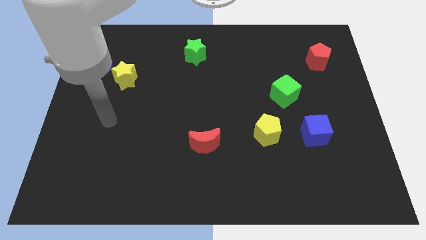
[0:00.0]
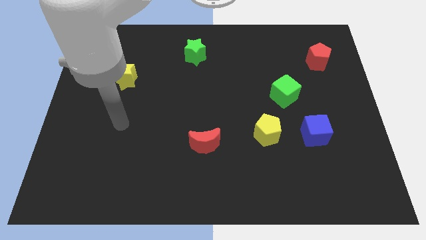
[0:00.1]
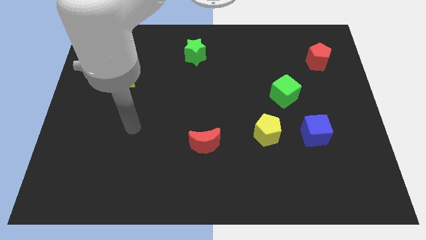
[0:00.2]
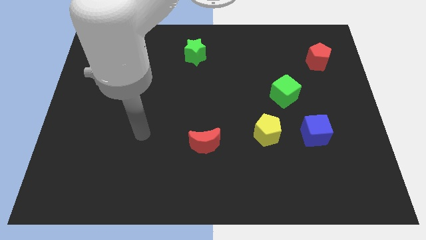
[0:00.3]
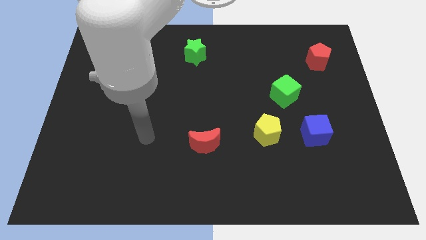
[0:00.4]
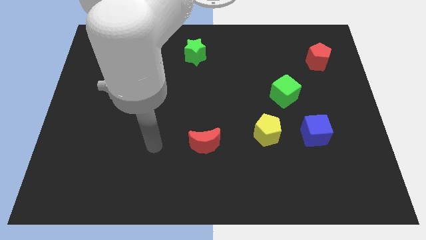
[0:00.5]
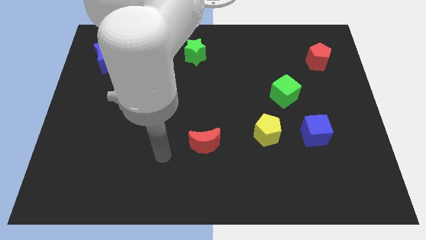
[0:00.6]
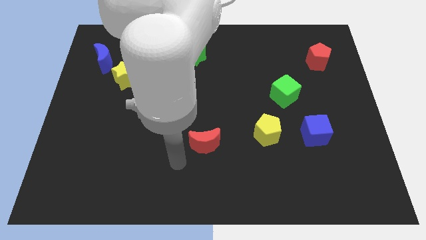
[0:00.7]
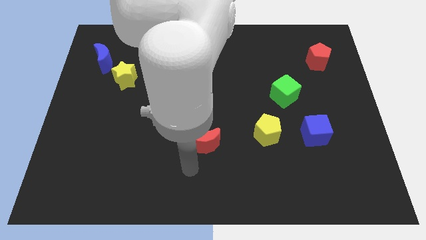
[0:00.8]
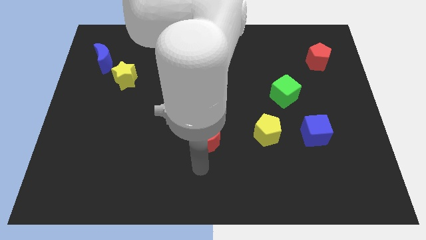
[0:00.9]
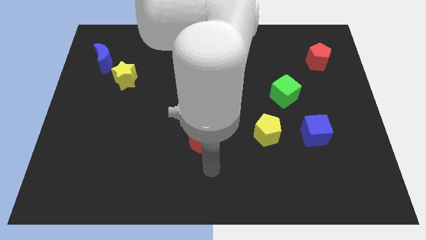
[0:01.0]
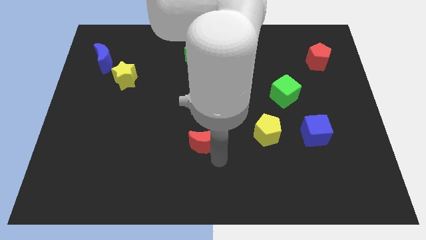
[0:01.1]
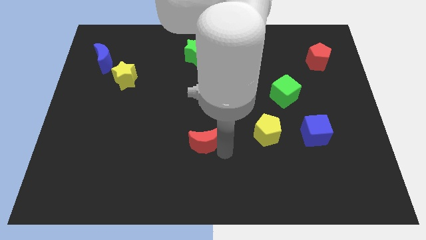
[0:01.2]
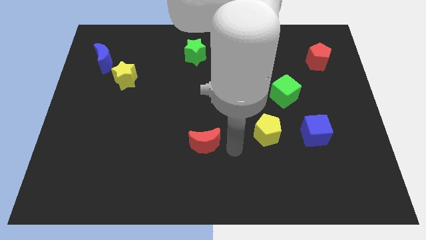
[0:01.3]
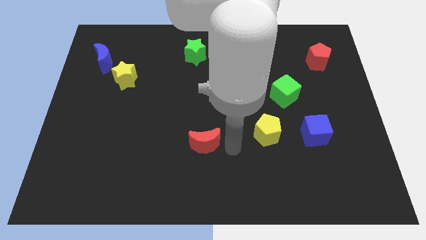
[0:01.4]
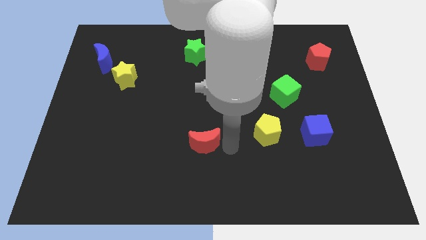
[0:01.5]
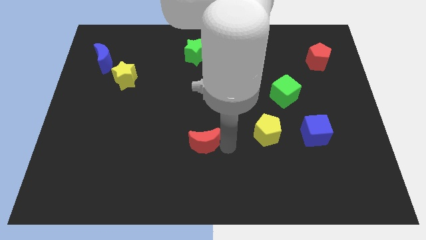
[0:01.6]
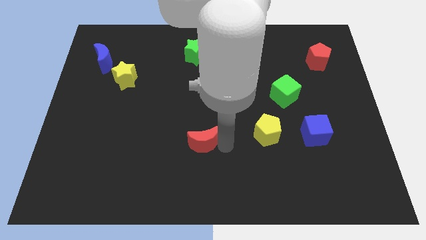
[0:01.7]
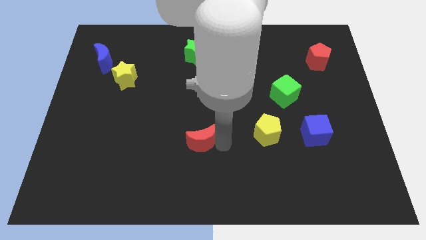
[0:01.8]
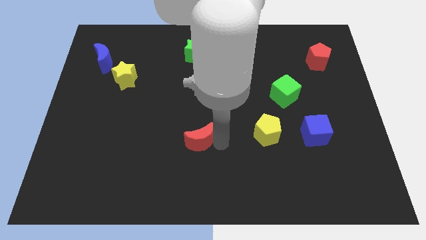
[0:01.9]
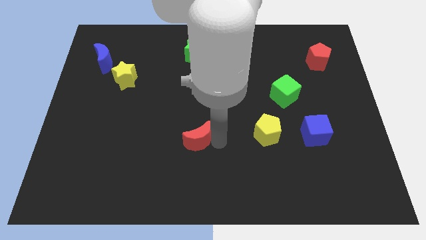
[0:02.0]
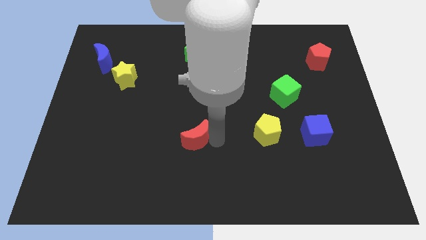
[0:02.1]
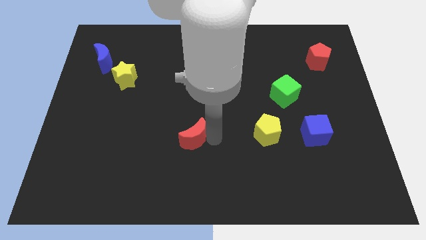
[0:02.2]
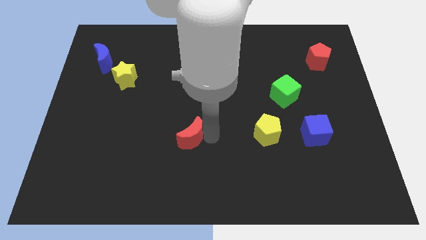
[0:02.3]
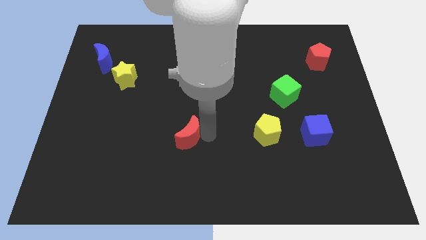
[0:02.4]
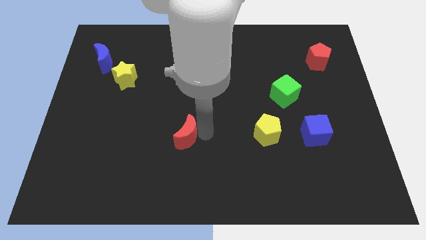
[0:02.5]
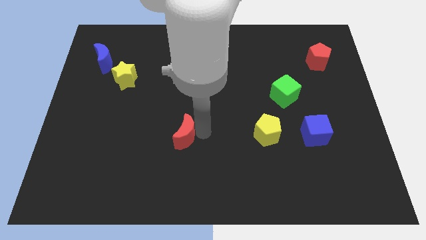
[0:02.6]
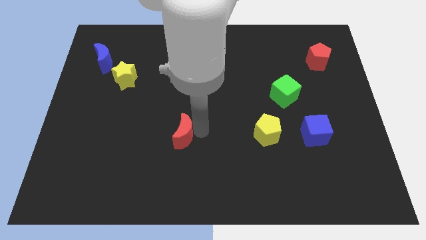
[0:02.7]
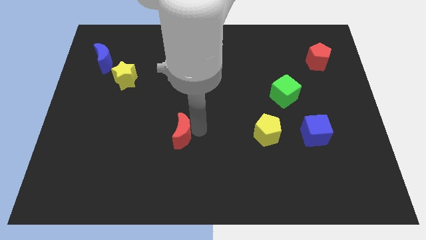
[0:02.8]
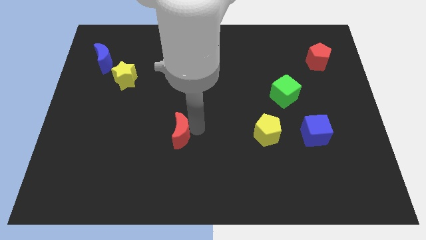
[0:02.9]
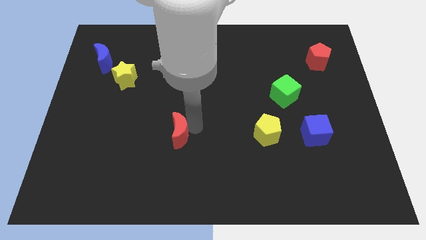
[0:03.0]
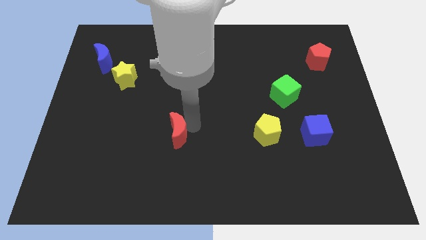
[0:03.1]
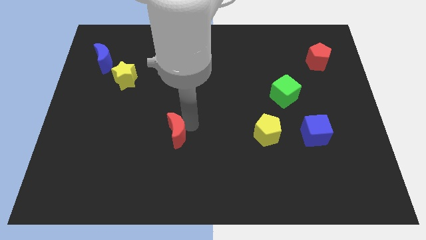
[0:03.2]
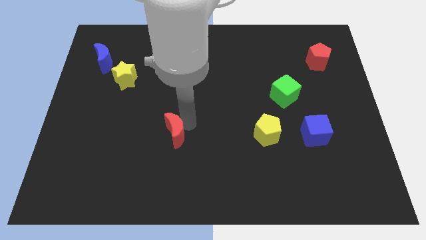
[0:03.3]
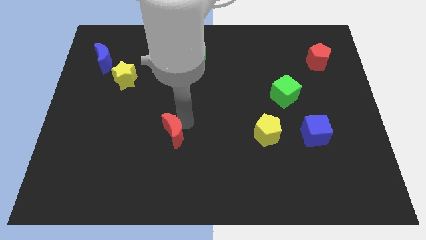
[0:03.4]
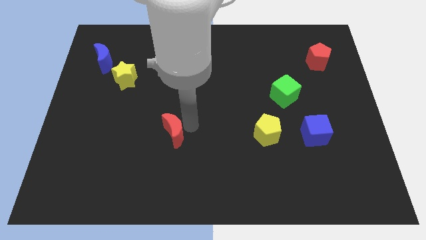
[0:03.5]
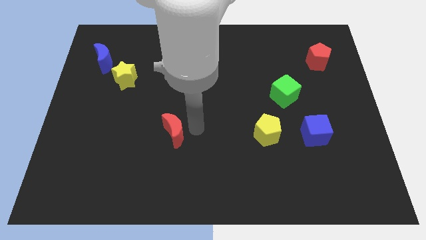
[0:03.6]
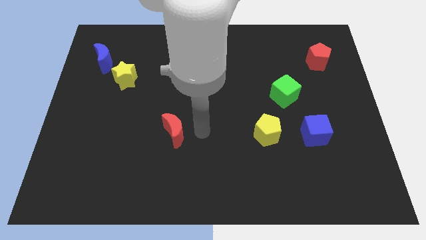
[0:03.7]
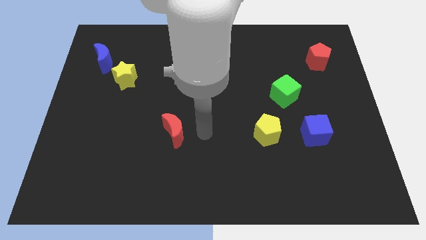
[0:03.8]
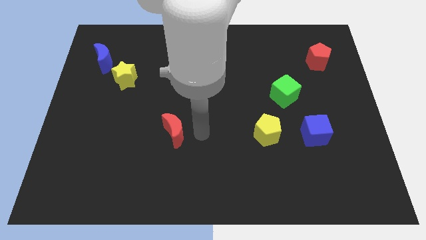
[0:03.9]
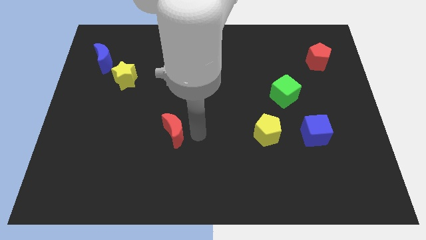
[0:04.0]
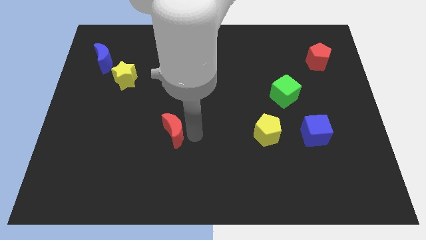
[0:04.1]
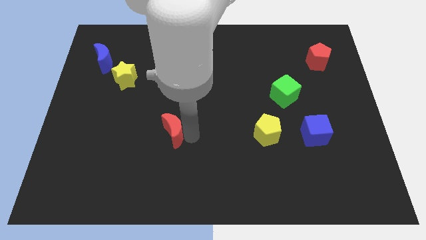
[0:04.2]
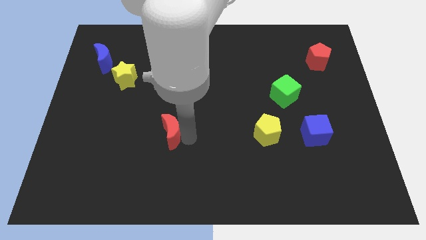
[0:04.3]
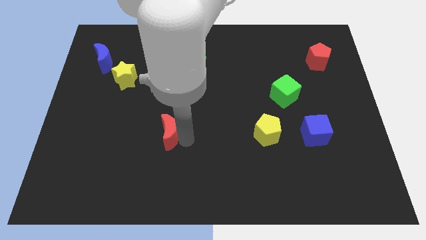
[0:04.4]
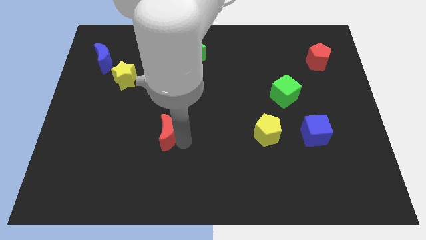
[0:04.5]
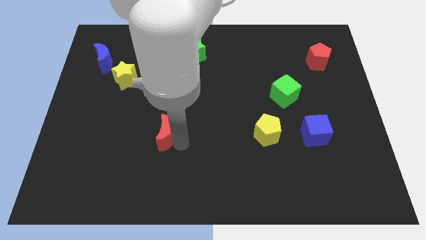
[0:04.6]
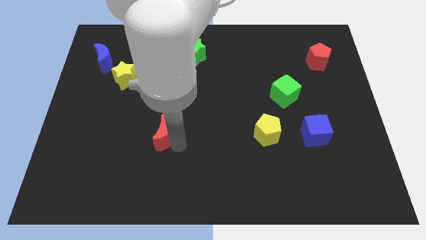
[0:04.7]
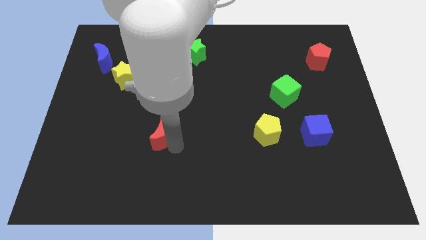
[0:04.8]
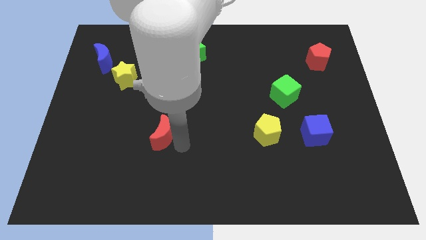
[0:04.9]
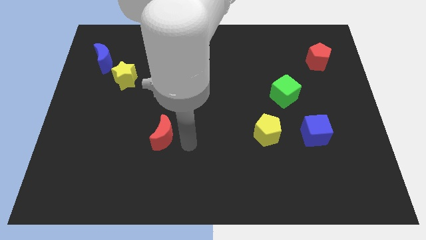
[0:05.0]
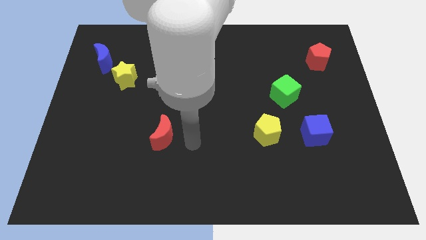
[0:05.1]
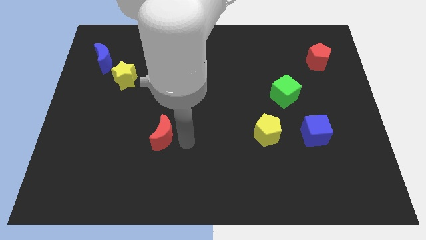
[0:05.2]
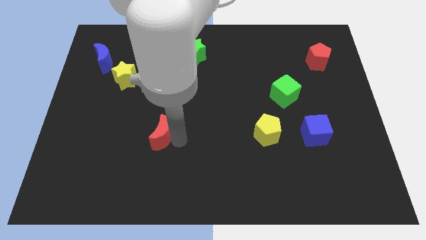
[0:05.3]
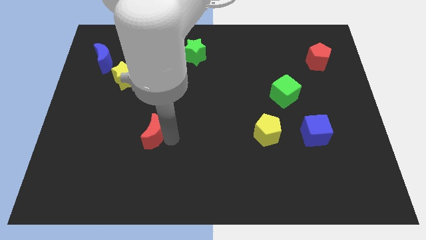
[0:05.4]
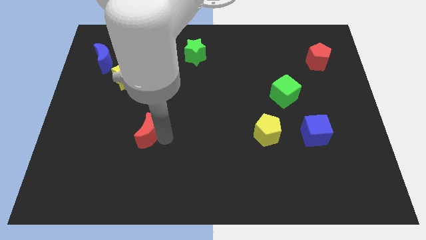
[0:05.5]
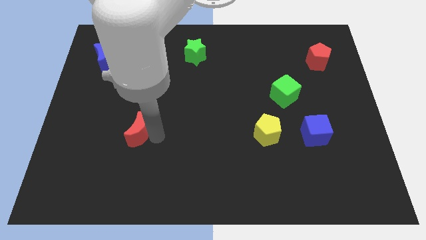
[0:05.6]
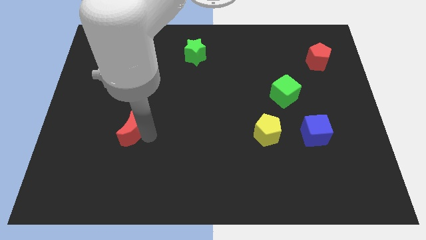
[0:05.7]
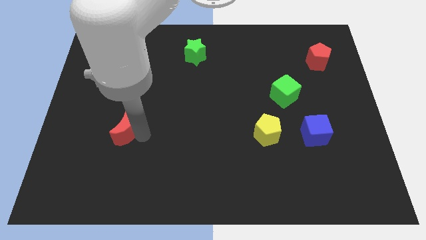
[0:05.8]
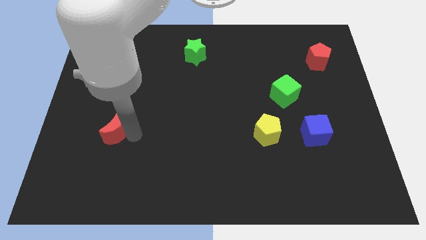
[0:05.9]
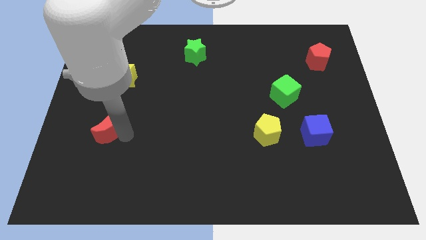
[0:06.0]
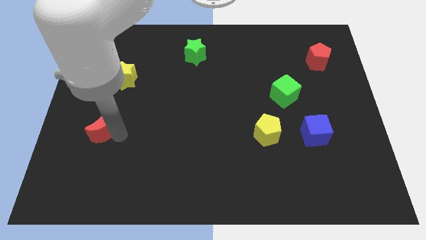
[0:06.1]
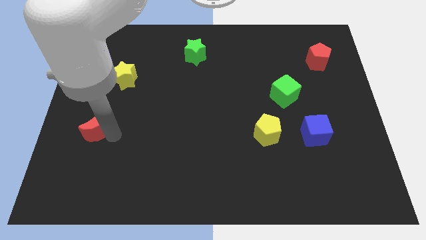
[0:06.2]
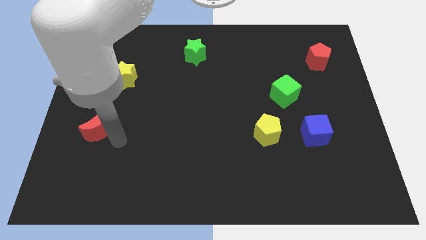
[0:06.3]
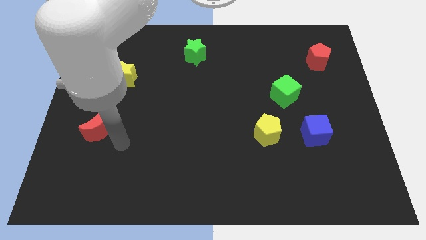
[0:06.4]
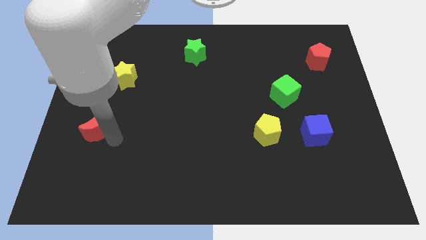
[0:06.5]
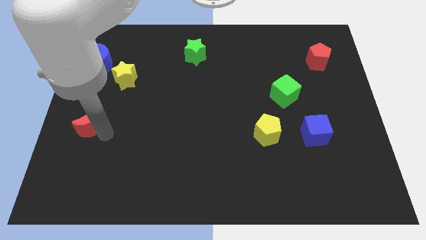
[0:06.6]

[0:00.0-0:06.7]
put the red moon to the left side
